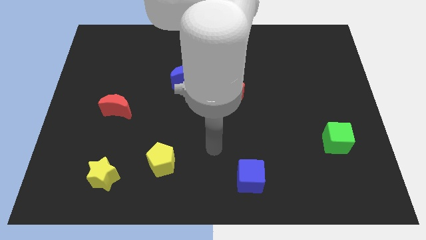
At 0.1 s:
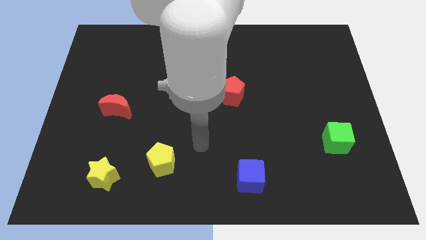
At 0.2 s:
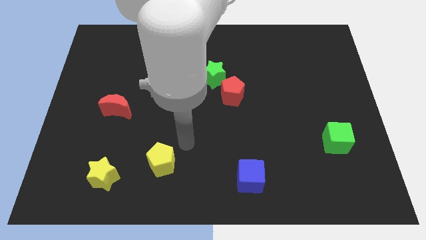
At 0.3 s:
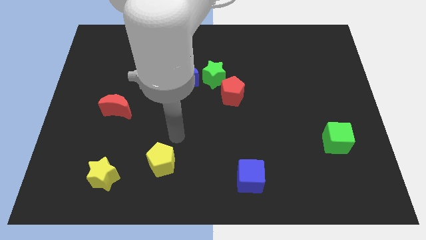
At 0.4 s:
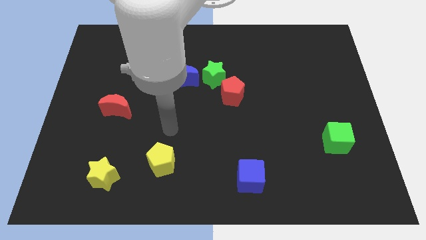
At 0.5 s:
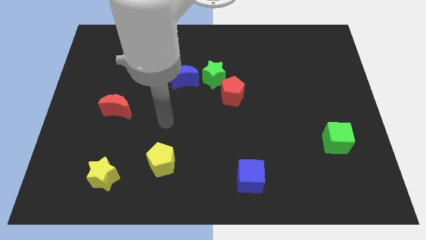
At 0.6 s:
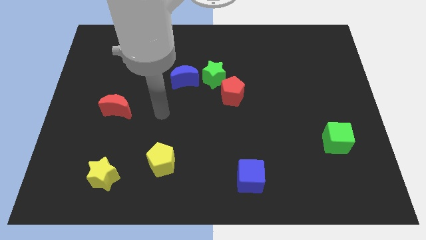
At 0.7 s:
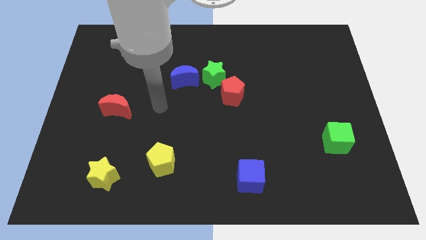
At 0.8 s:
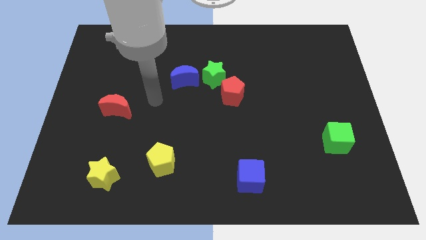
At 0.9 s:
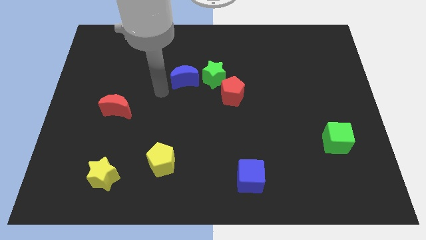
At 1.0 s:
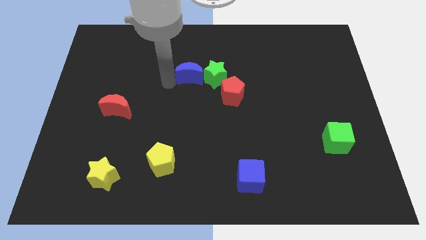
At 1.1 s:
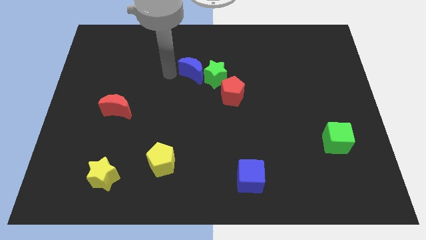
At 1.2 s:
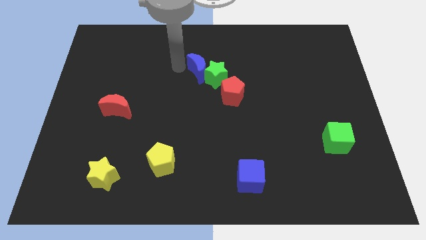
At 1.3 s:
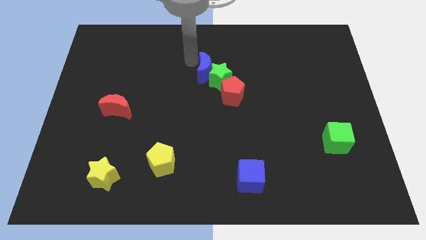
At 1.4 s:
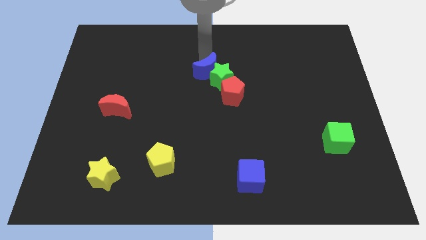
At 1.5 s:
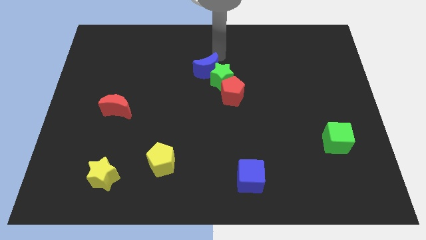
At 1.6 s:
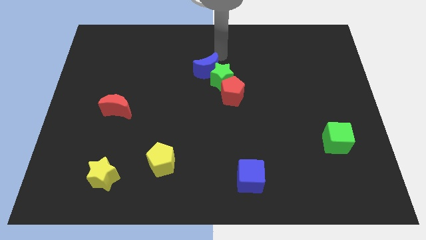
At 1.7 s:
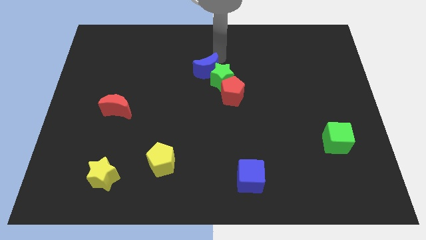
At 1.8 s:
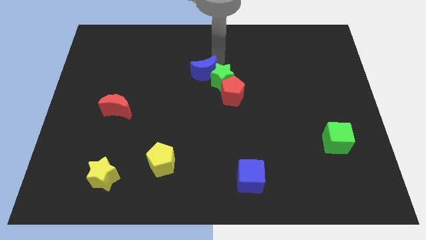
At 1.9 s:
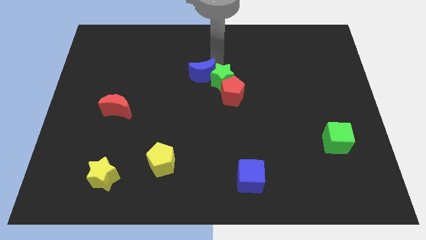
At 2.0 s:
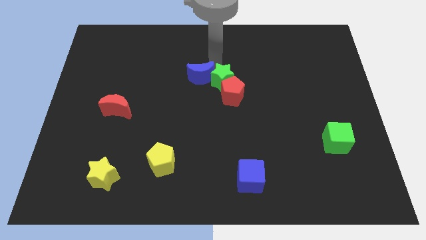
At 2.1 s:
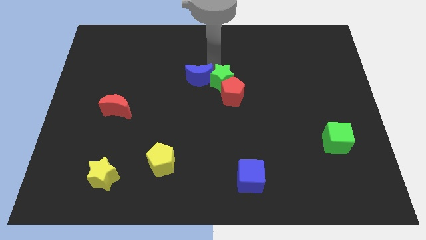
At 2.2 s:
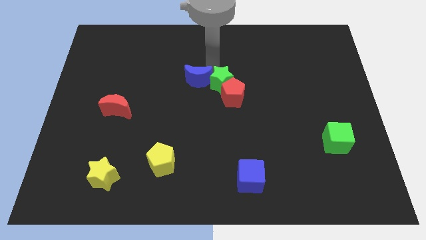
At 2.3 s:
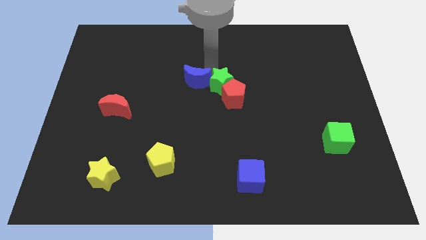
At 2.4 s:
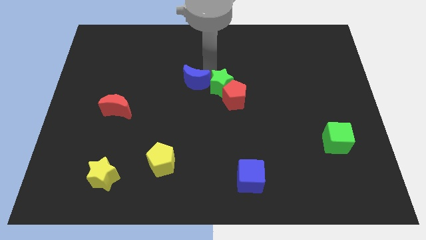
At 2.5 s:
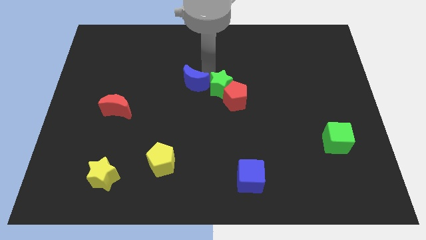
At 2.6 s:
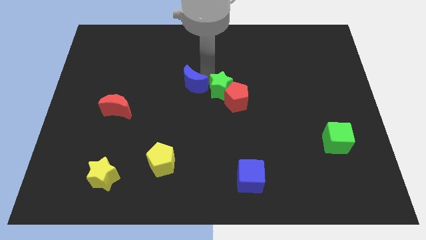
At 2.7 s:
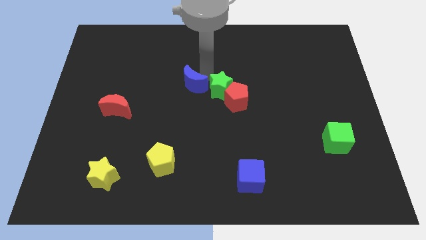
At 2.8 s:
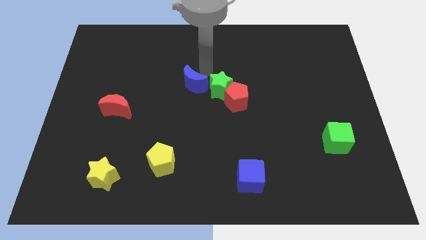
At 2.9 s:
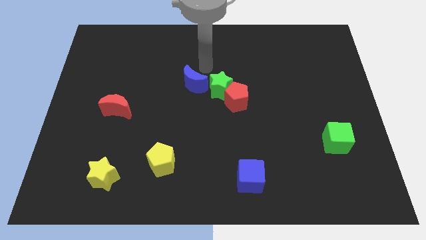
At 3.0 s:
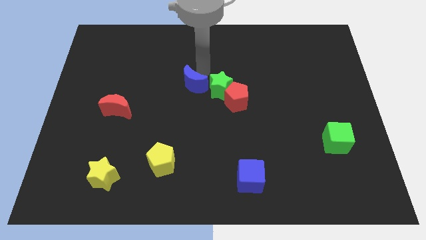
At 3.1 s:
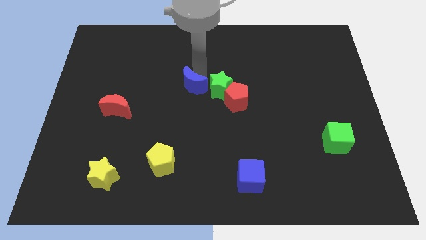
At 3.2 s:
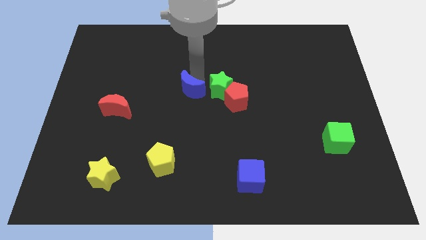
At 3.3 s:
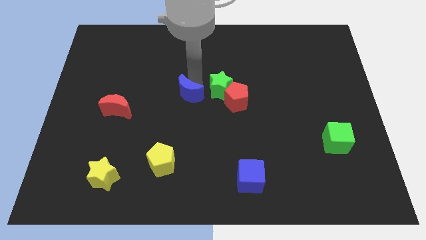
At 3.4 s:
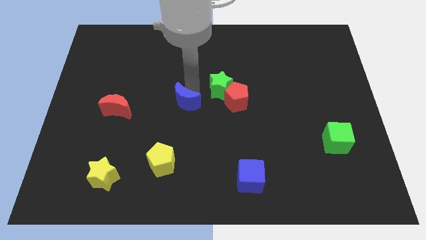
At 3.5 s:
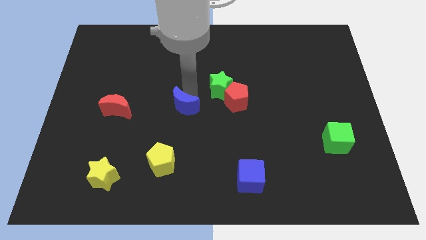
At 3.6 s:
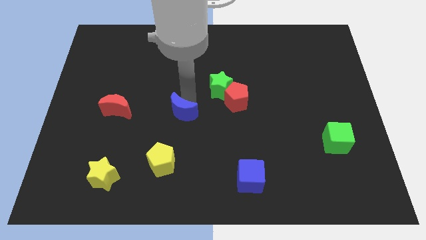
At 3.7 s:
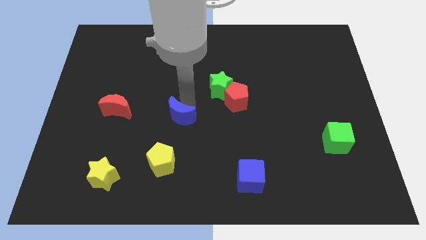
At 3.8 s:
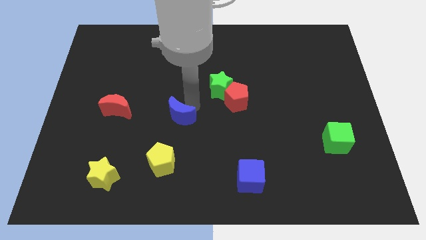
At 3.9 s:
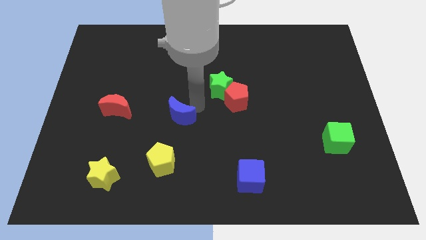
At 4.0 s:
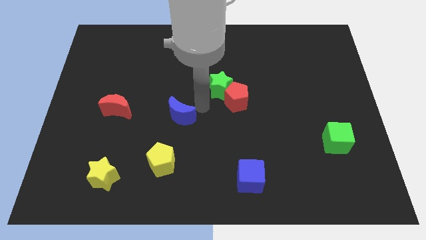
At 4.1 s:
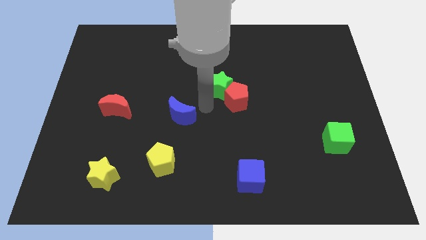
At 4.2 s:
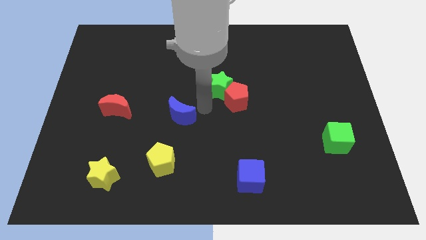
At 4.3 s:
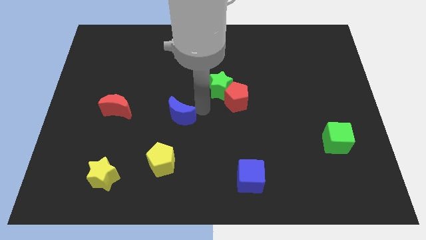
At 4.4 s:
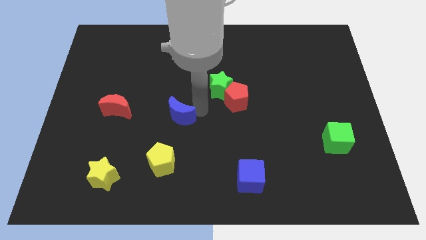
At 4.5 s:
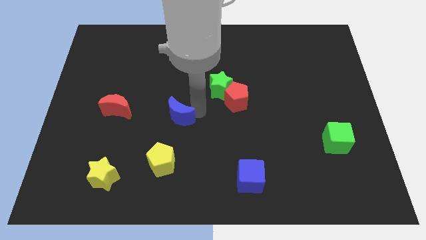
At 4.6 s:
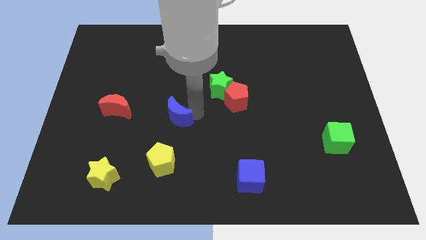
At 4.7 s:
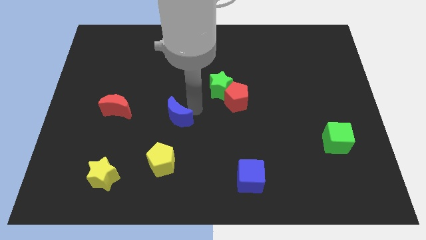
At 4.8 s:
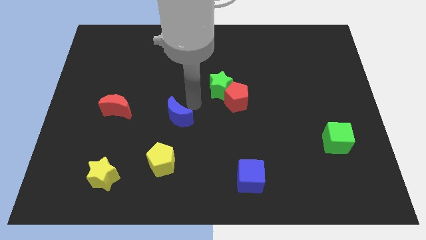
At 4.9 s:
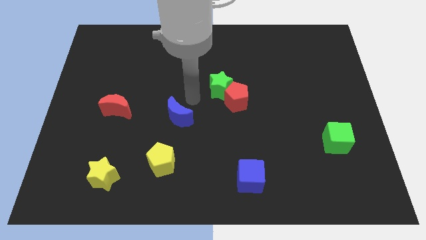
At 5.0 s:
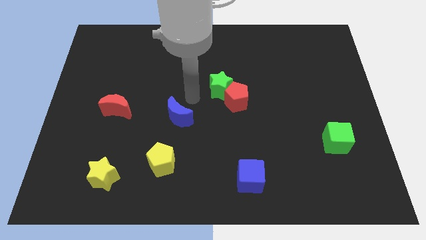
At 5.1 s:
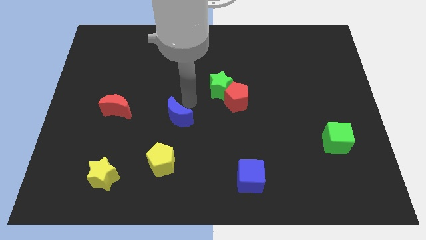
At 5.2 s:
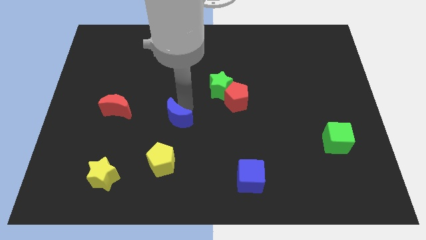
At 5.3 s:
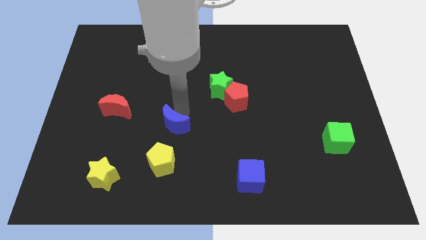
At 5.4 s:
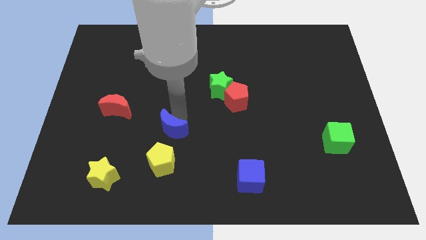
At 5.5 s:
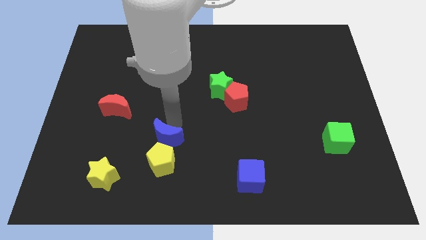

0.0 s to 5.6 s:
move the blue moon towards the yellow pentagon

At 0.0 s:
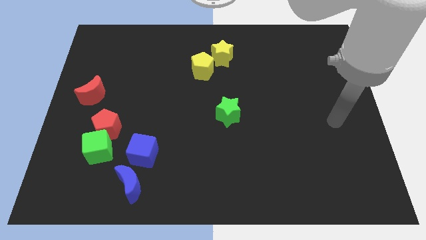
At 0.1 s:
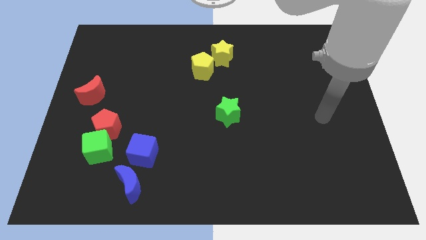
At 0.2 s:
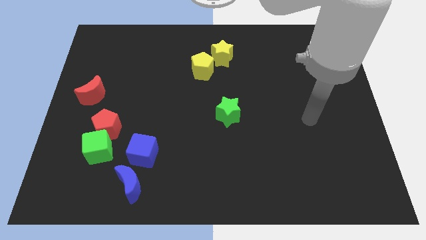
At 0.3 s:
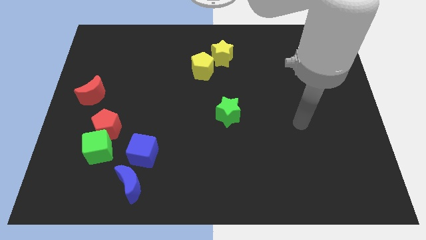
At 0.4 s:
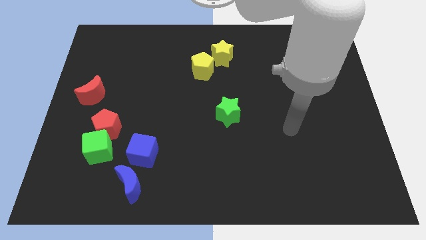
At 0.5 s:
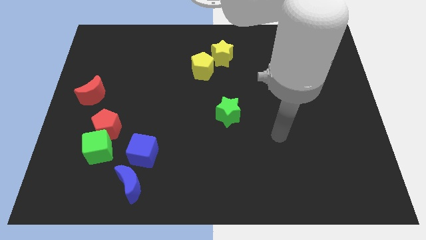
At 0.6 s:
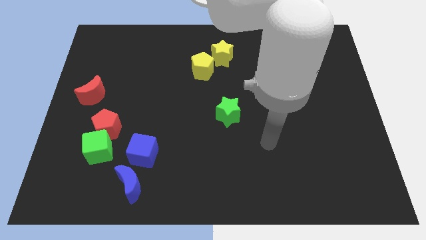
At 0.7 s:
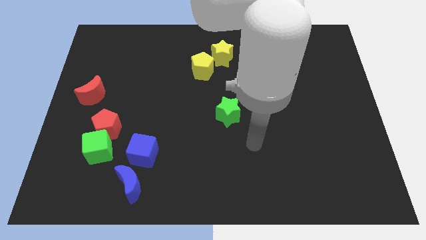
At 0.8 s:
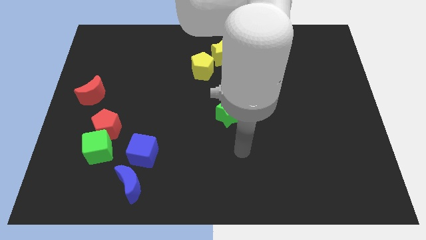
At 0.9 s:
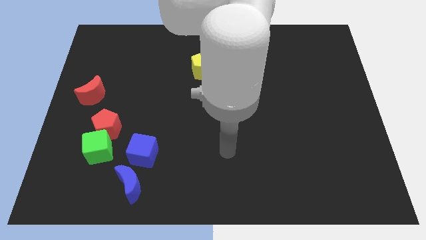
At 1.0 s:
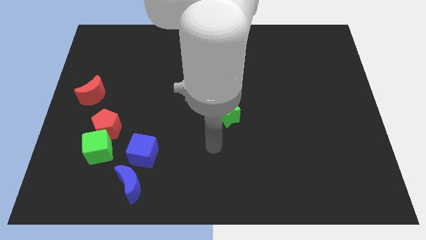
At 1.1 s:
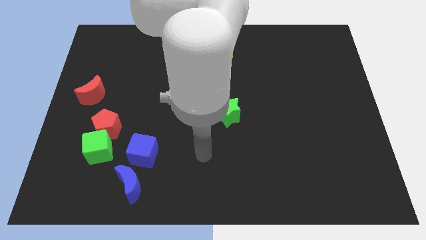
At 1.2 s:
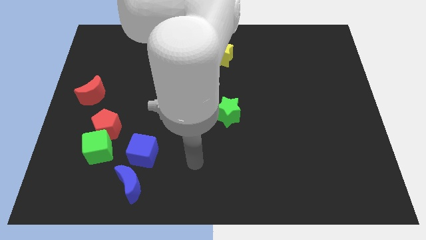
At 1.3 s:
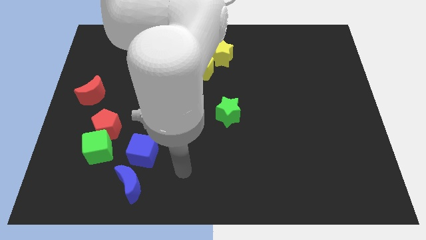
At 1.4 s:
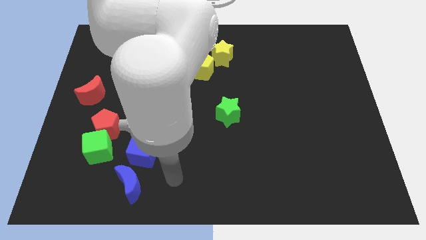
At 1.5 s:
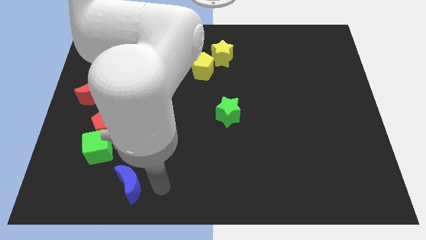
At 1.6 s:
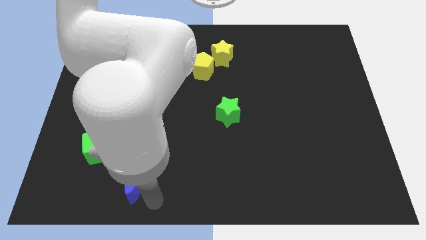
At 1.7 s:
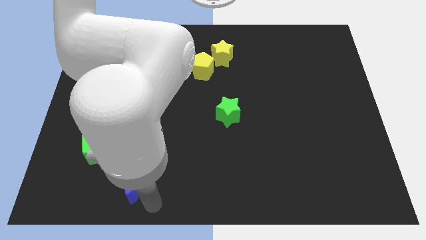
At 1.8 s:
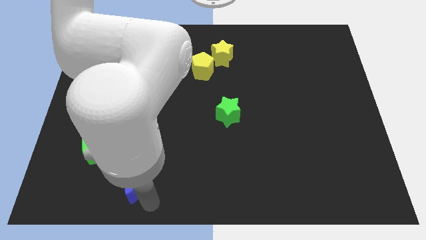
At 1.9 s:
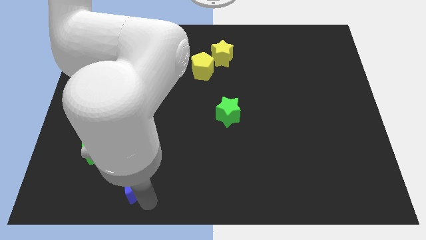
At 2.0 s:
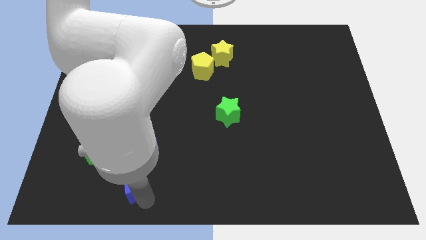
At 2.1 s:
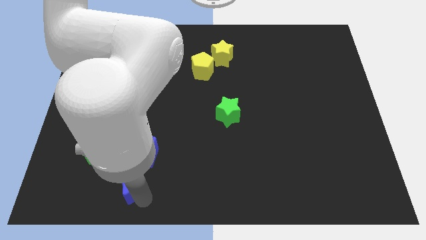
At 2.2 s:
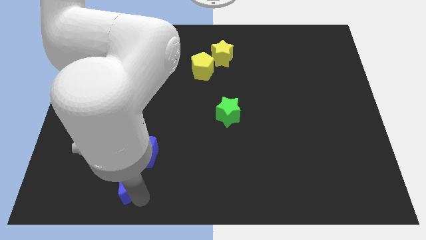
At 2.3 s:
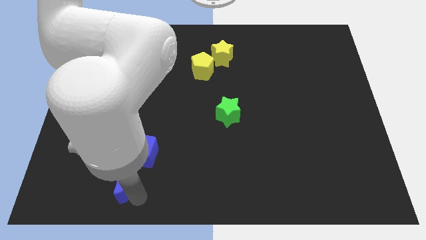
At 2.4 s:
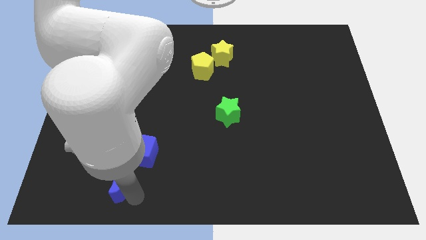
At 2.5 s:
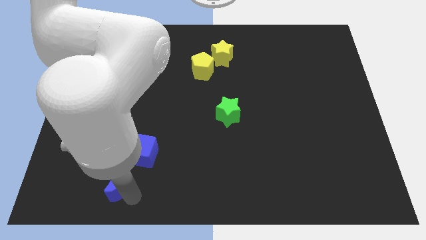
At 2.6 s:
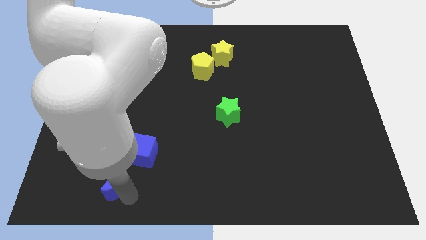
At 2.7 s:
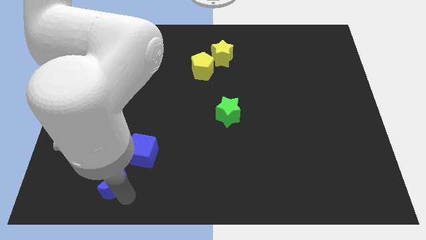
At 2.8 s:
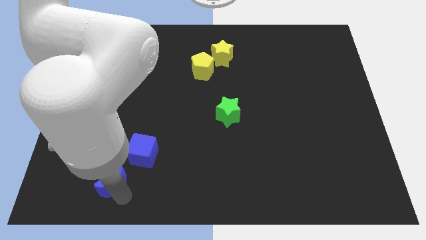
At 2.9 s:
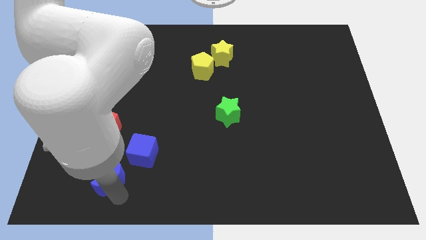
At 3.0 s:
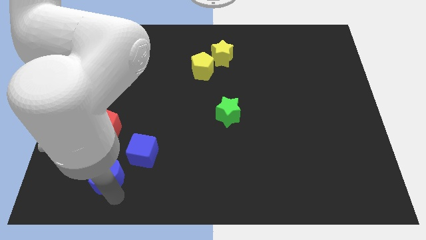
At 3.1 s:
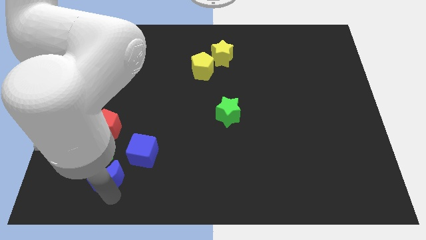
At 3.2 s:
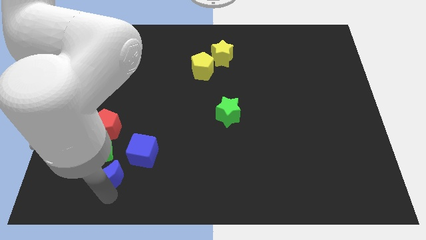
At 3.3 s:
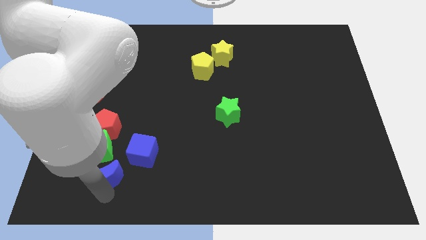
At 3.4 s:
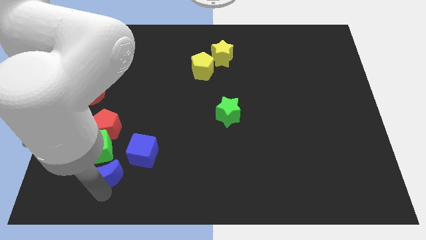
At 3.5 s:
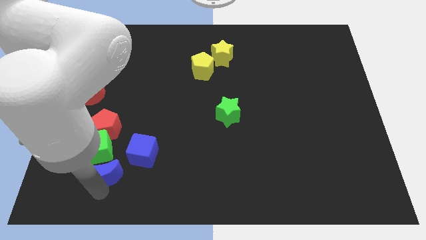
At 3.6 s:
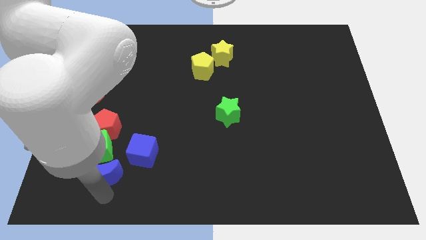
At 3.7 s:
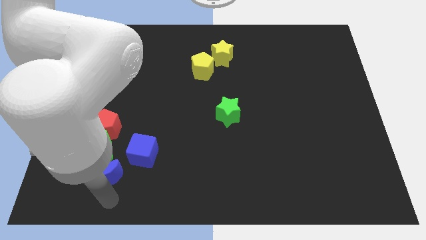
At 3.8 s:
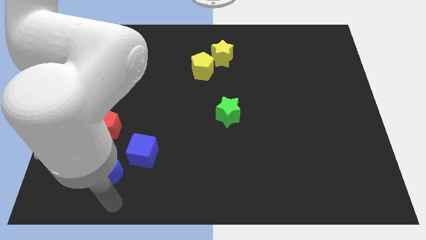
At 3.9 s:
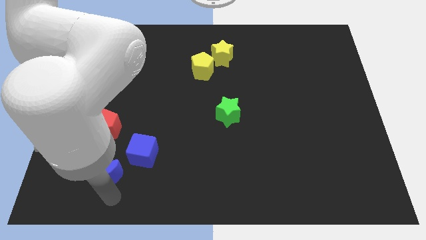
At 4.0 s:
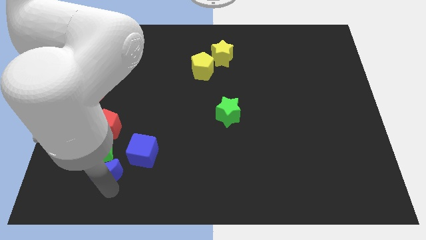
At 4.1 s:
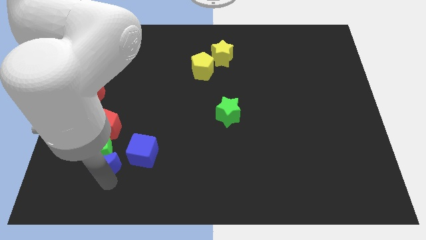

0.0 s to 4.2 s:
slide the blue moon to the green cube
